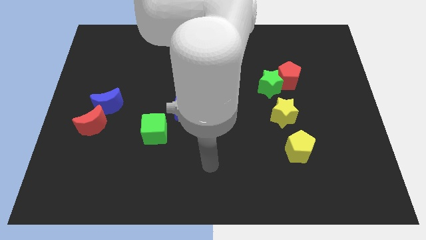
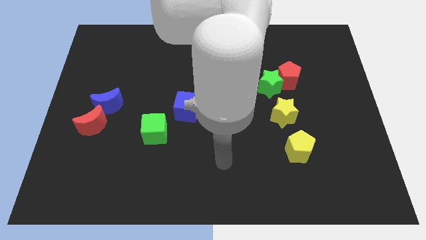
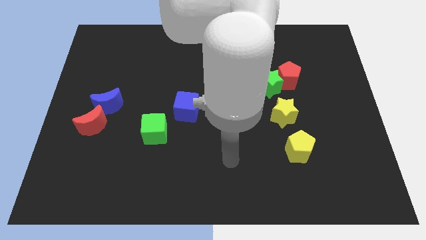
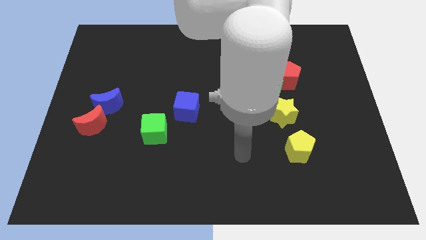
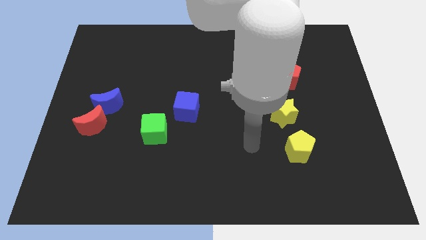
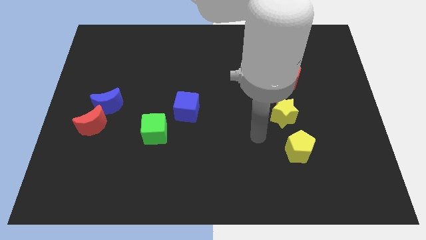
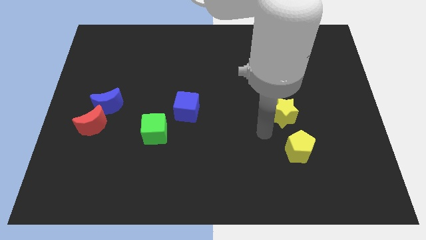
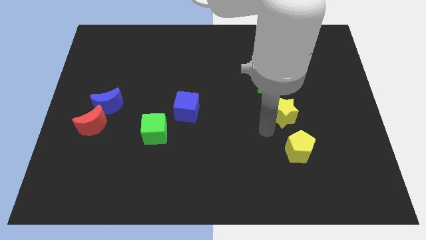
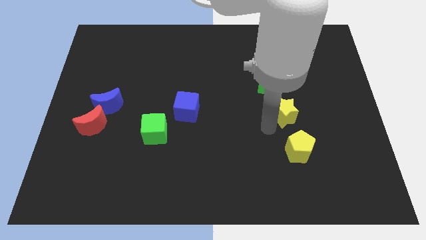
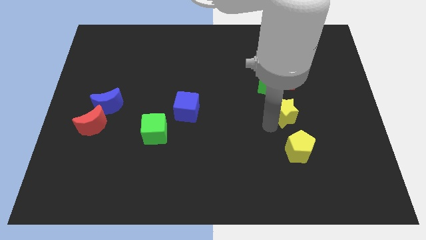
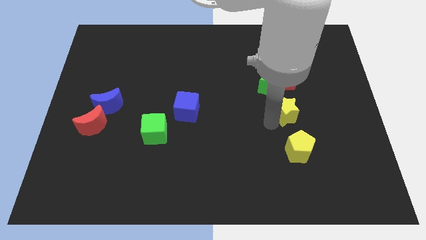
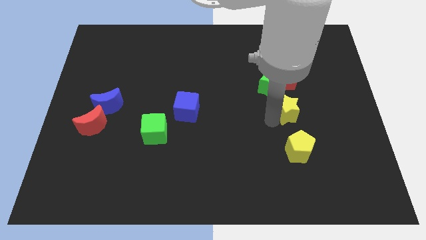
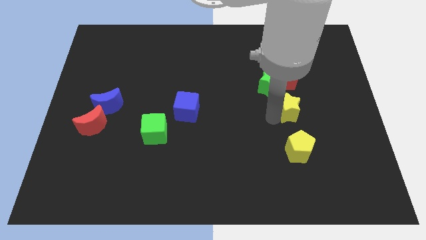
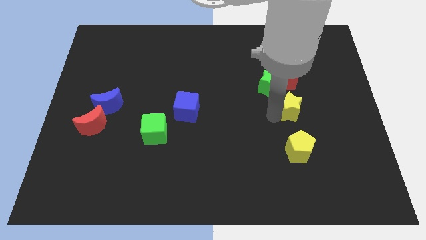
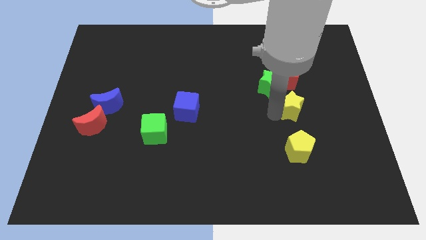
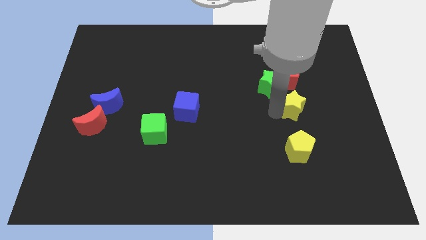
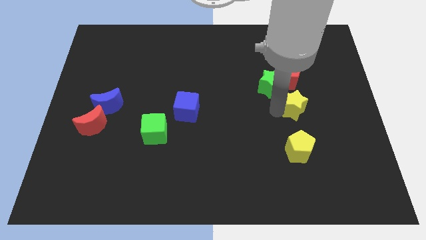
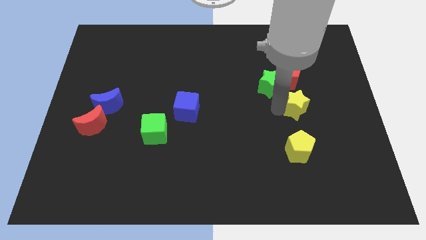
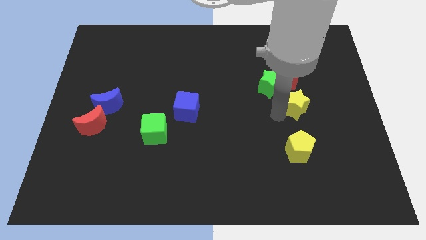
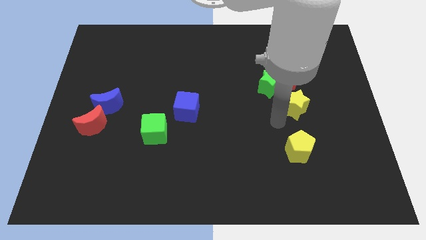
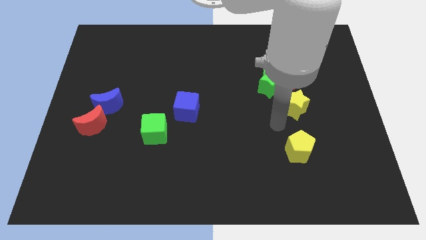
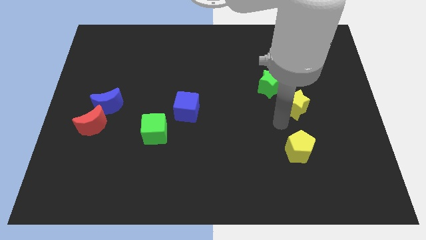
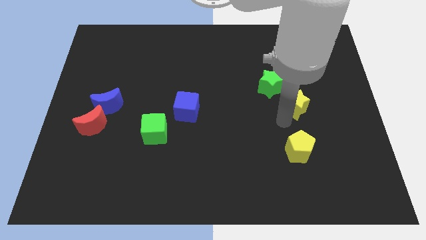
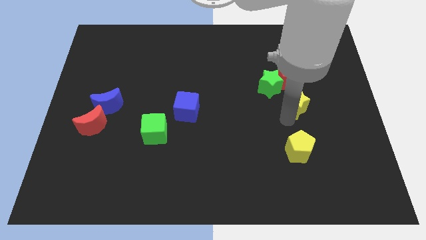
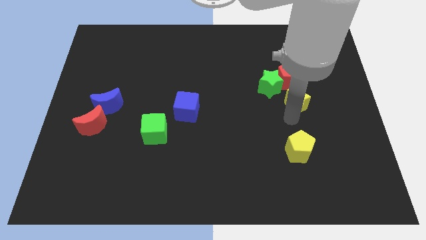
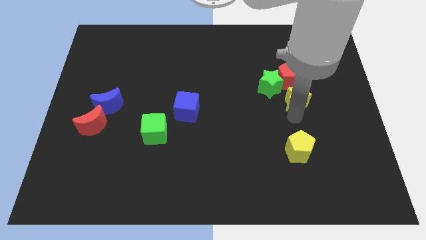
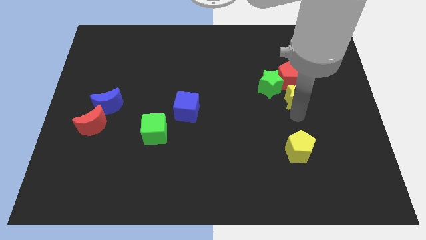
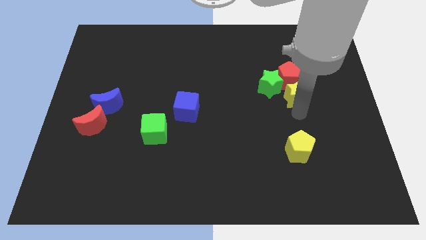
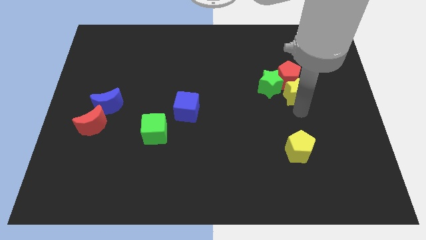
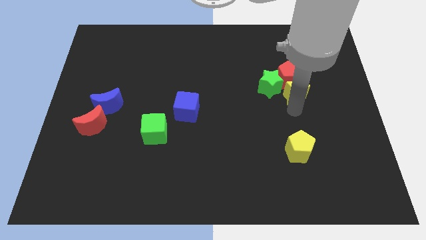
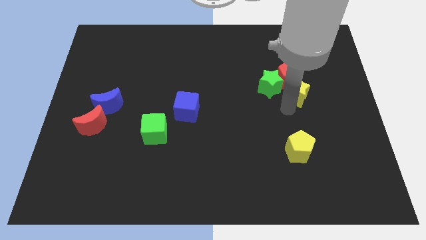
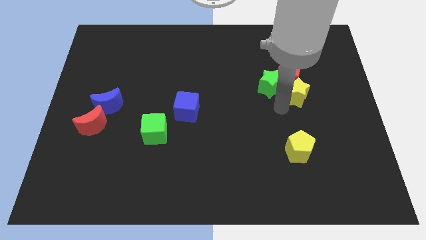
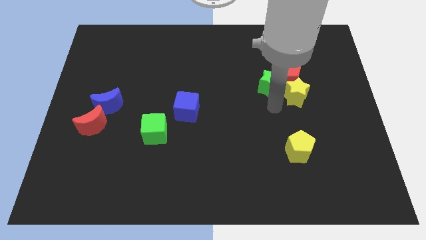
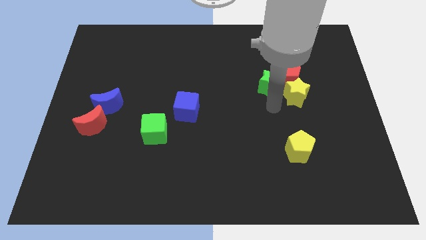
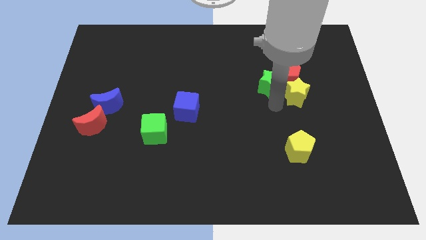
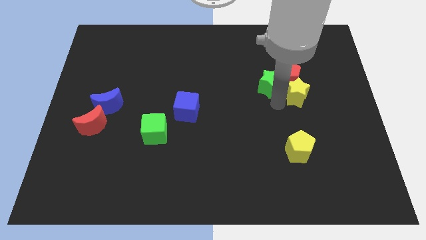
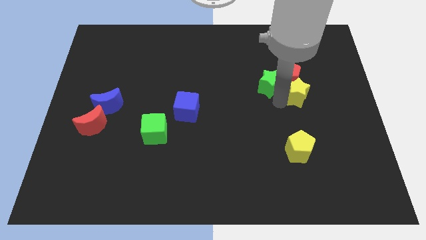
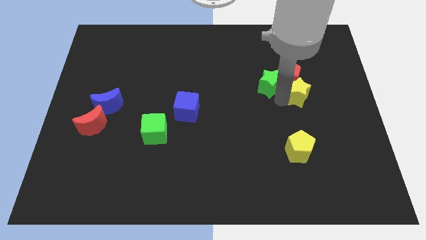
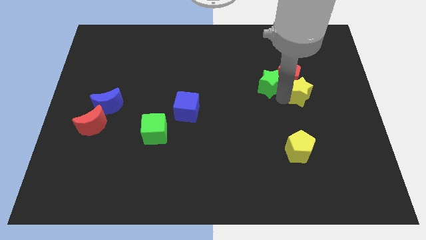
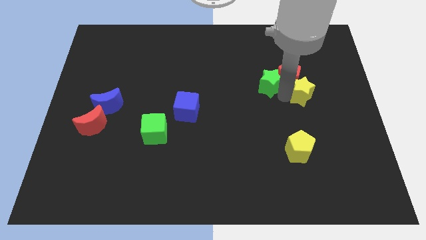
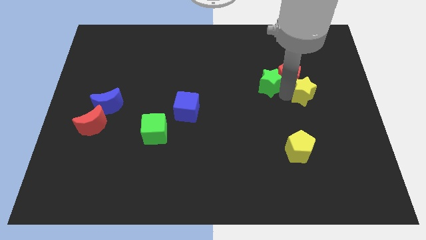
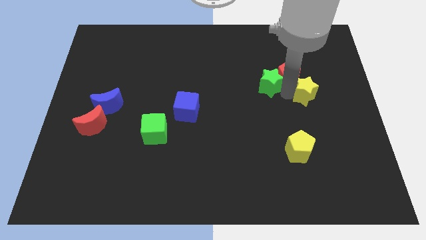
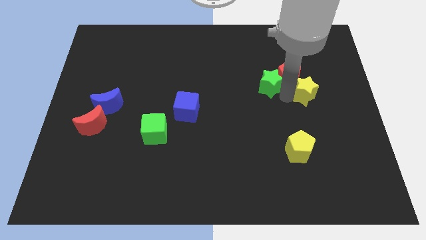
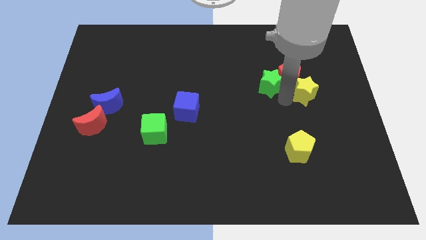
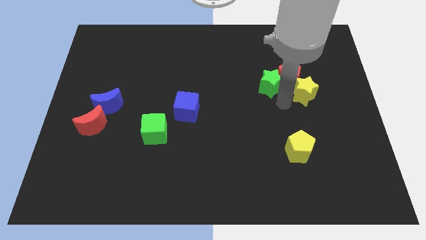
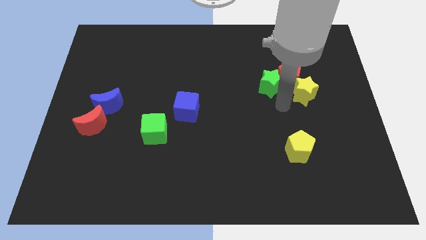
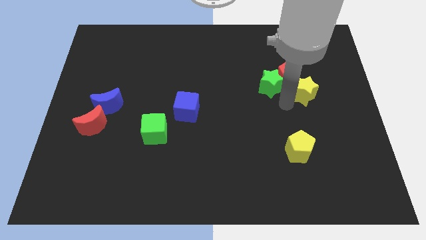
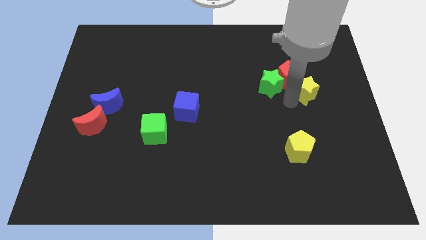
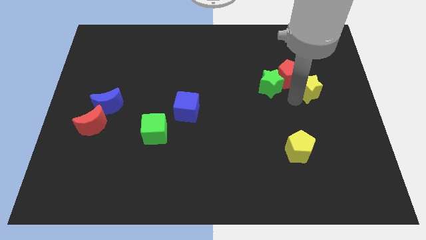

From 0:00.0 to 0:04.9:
move the yellow star to the right of the red pentagon

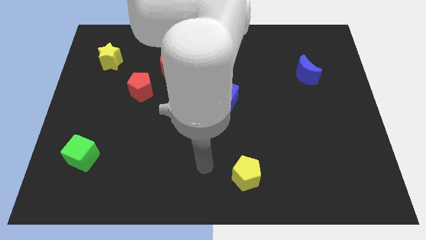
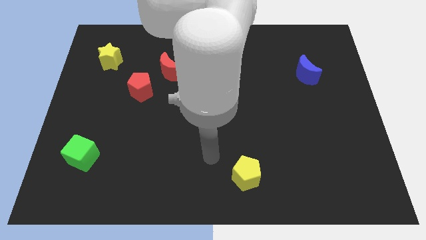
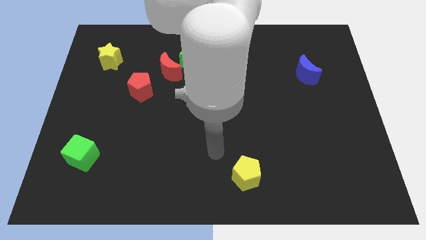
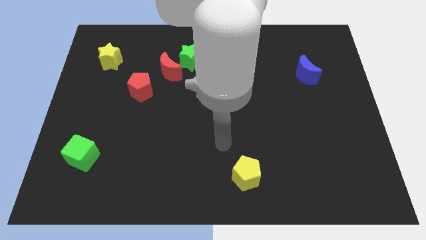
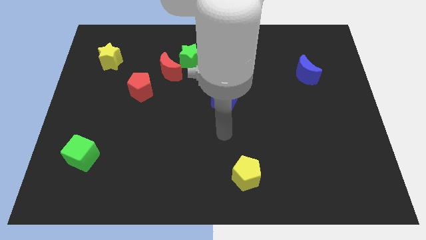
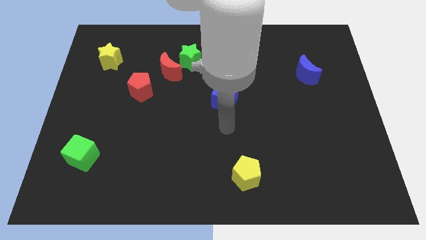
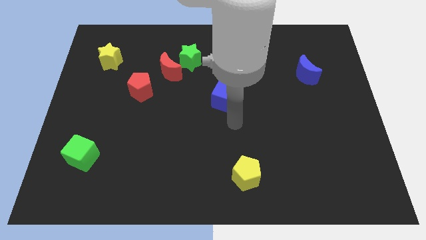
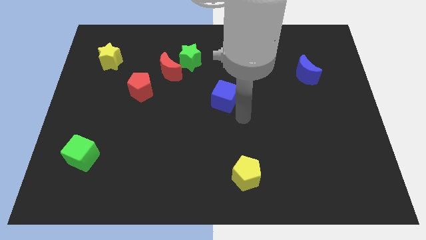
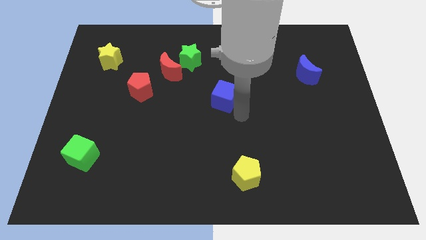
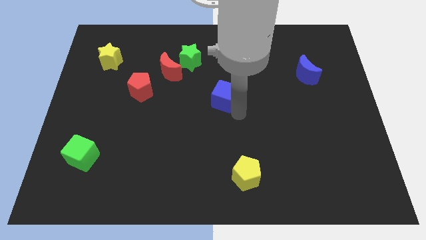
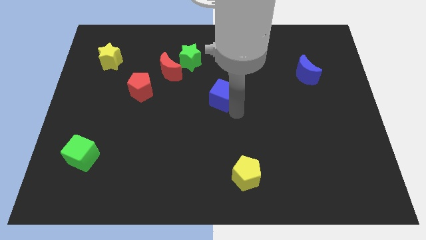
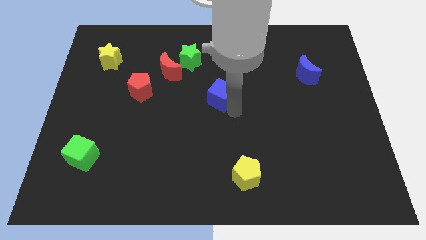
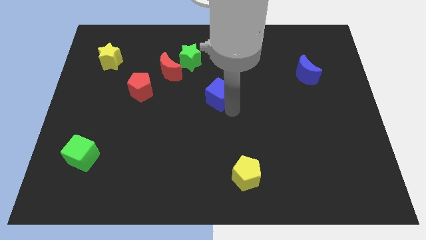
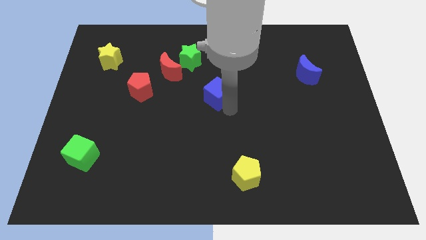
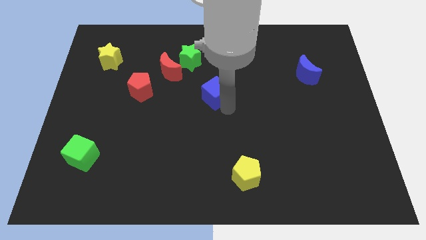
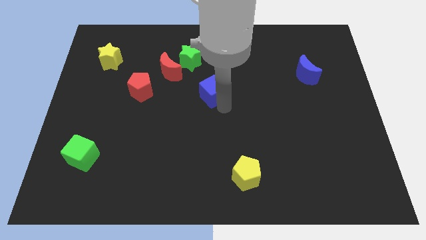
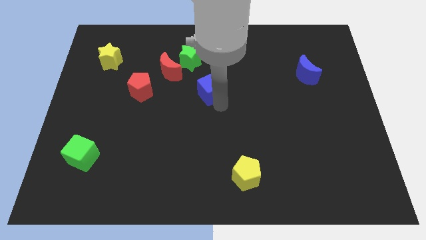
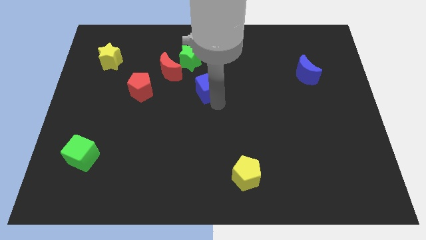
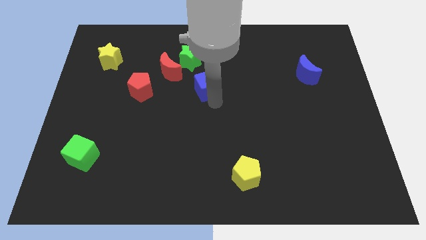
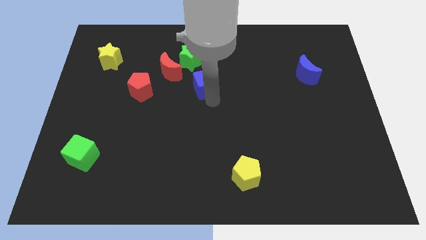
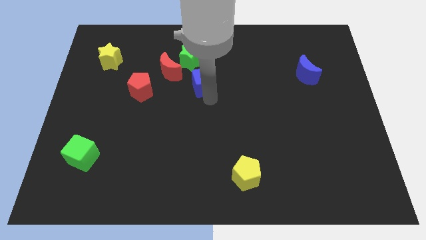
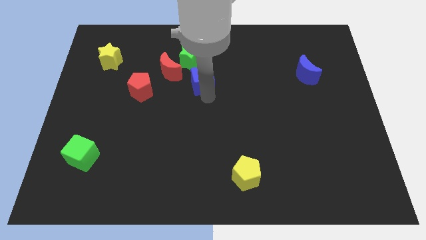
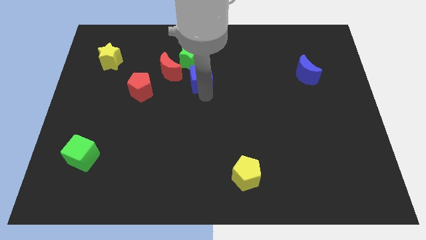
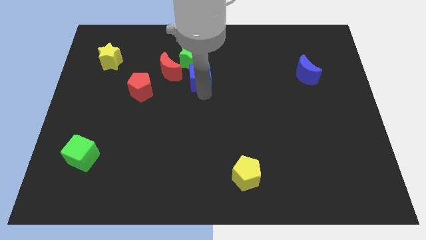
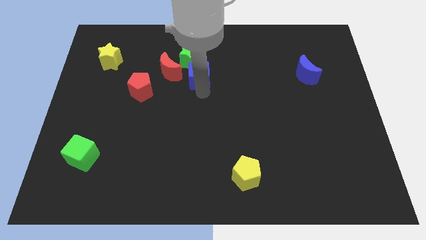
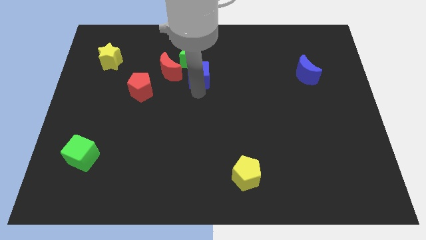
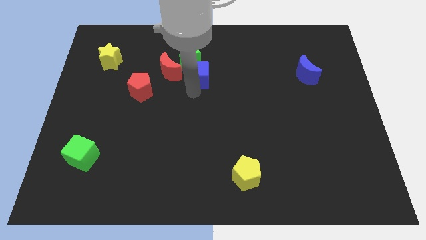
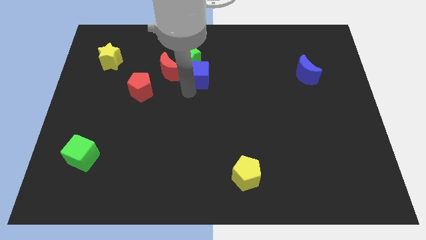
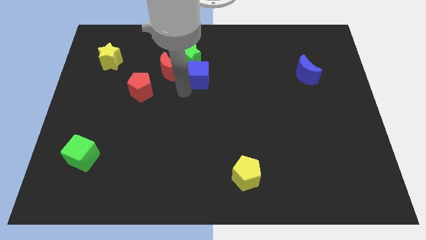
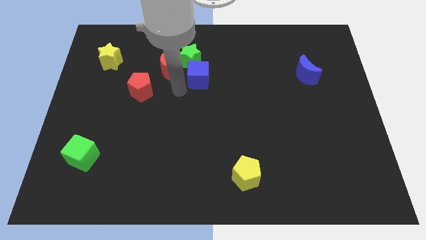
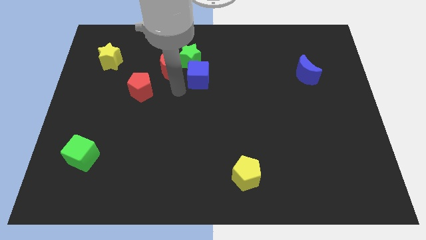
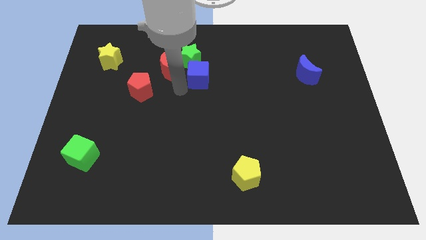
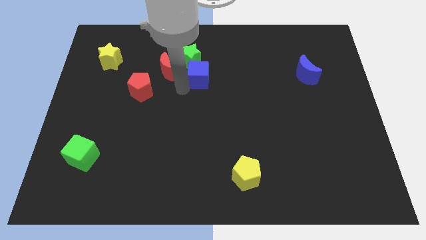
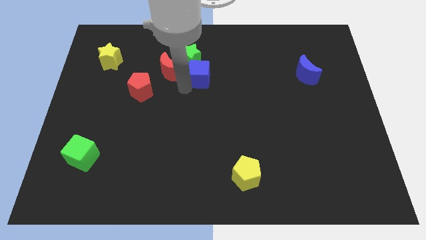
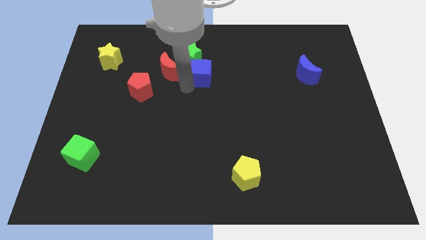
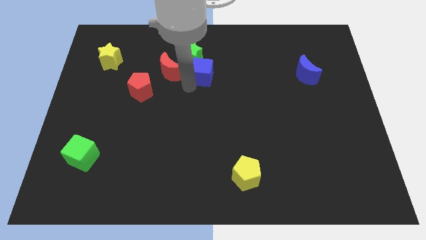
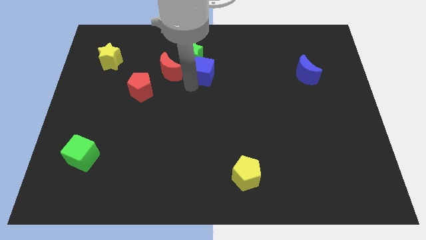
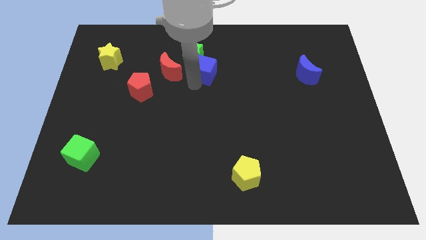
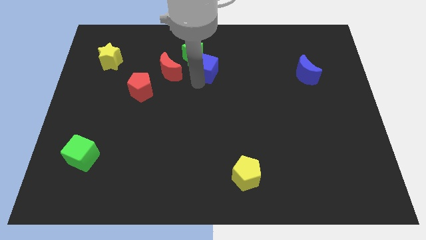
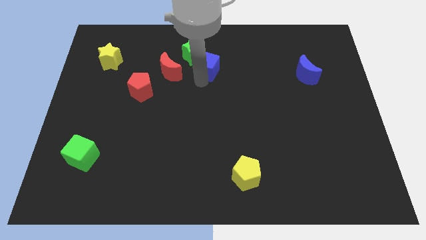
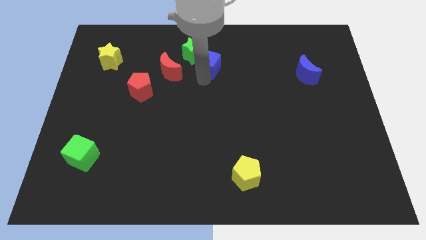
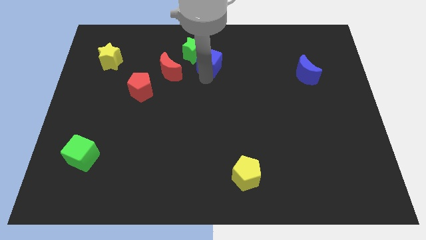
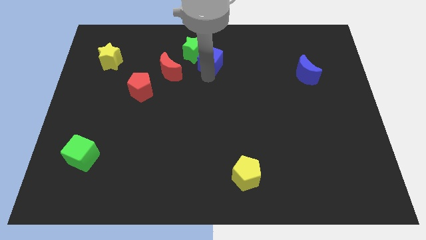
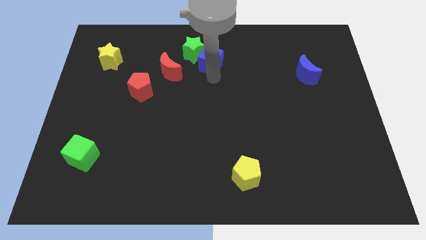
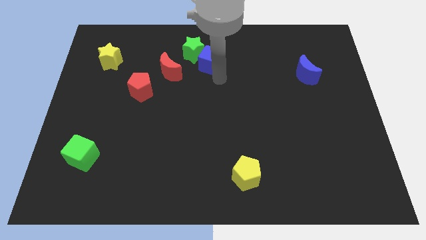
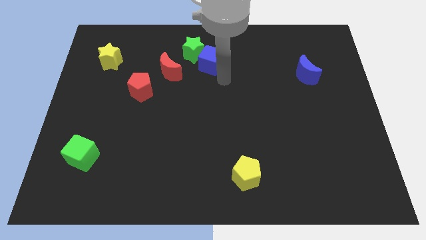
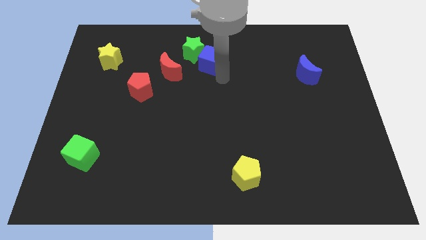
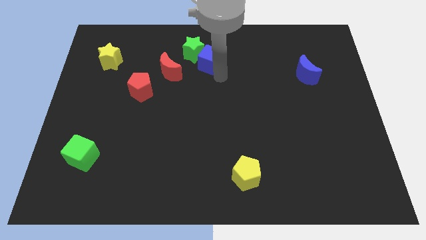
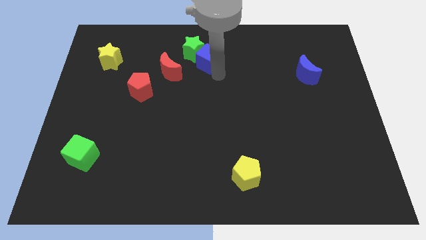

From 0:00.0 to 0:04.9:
put the blue cube diagonally up and to the right of the red moon
